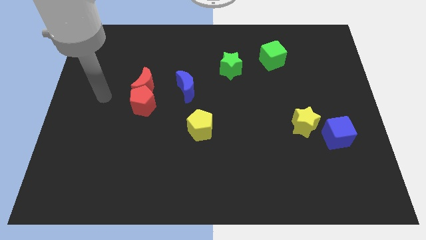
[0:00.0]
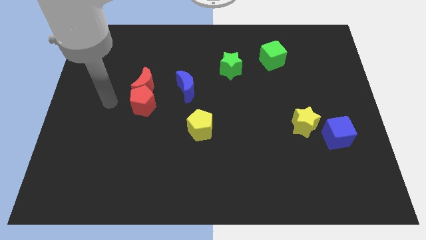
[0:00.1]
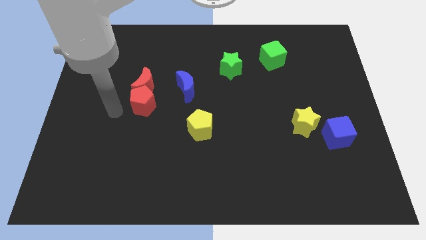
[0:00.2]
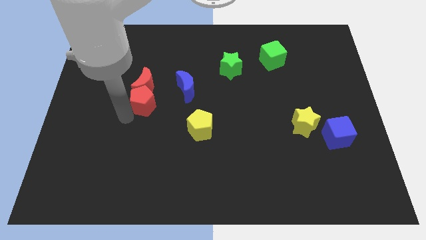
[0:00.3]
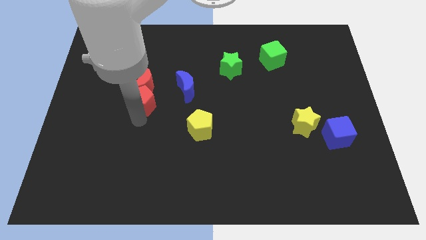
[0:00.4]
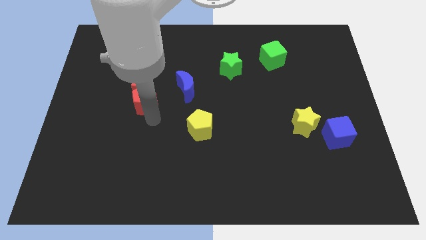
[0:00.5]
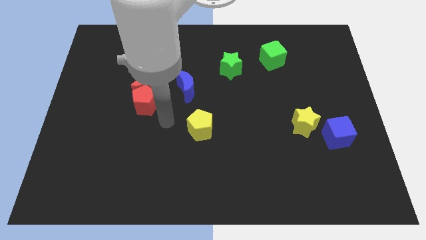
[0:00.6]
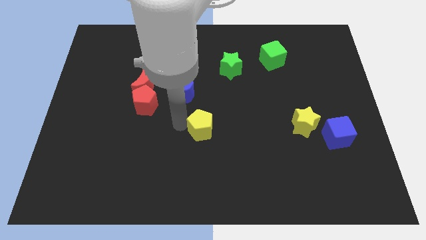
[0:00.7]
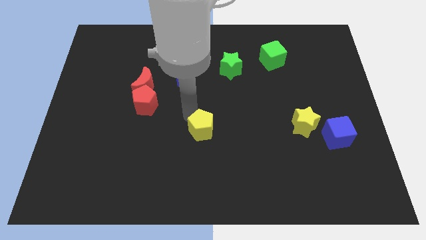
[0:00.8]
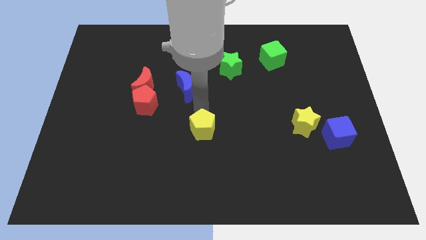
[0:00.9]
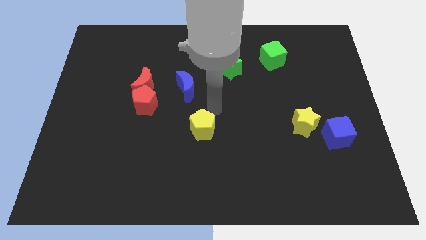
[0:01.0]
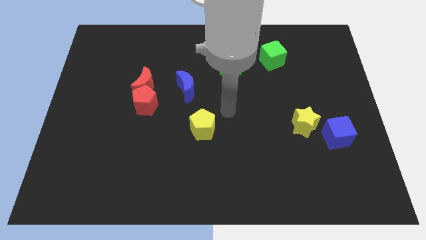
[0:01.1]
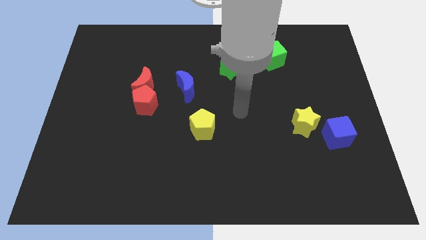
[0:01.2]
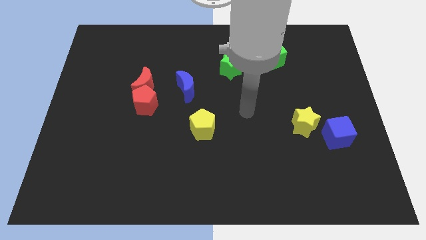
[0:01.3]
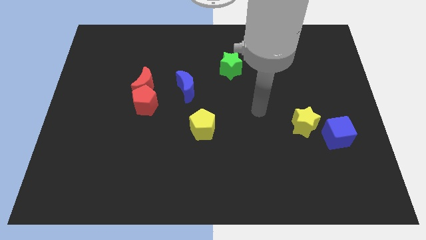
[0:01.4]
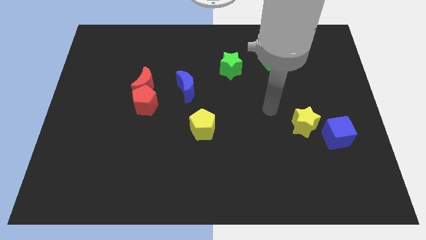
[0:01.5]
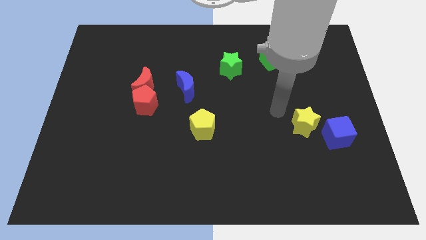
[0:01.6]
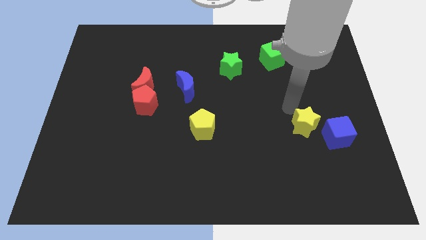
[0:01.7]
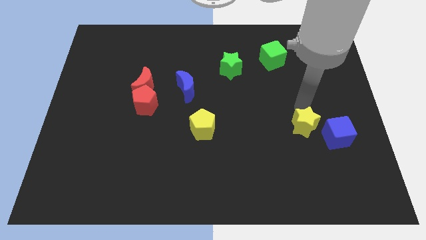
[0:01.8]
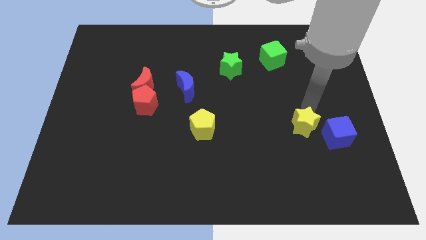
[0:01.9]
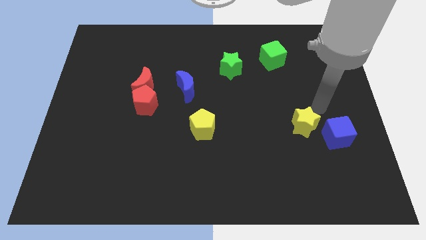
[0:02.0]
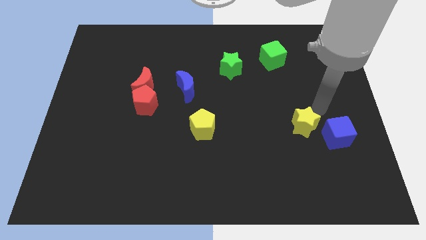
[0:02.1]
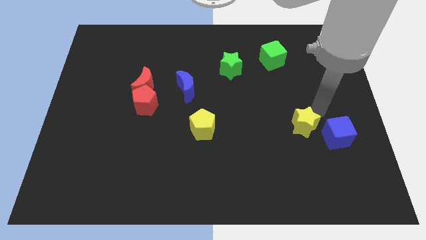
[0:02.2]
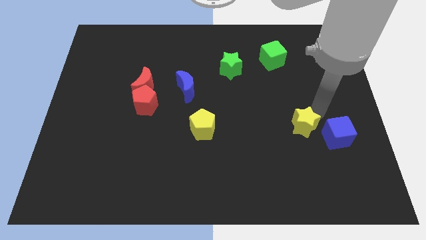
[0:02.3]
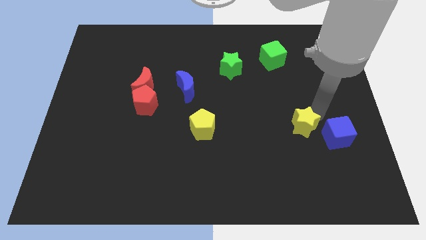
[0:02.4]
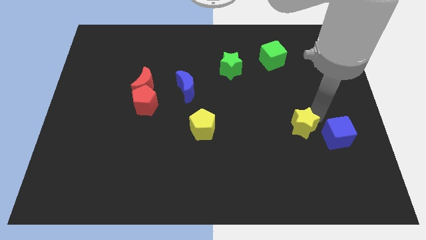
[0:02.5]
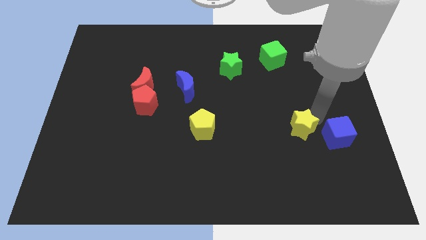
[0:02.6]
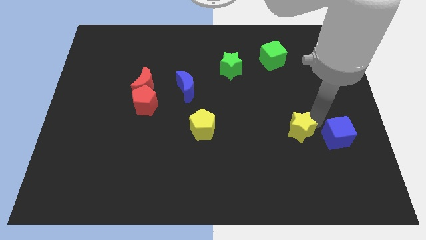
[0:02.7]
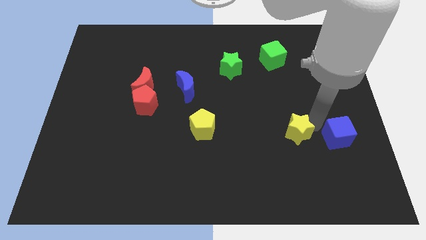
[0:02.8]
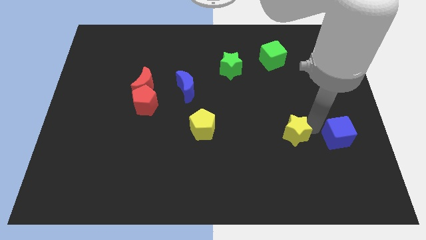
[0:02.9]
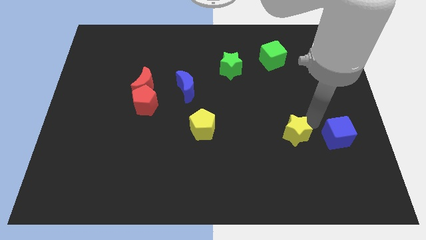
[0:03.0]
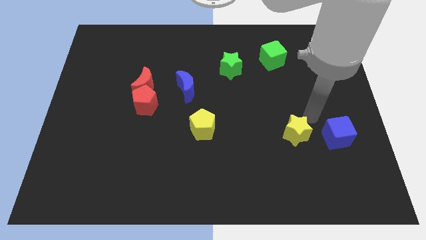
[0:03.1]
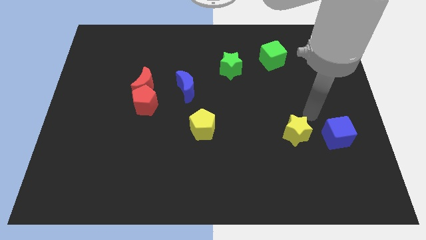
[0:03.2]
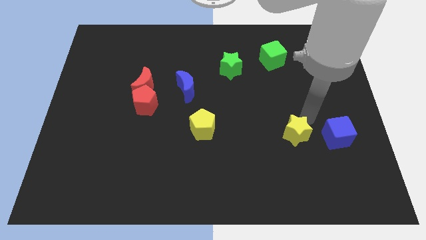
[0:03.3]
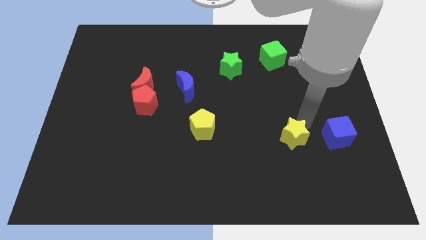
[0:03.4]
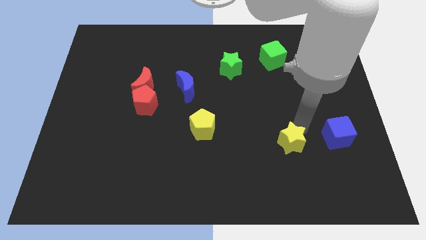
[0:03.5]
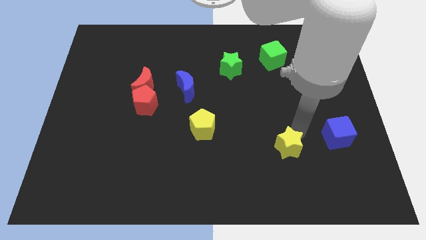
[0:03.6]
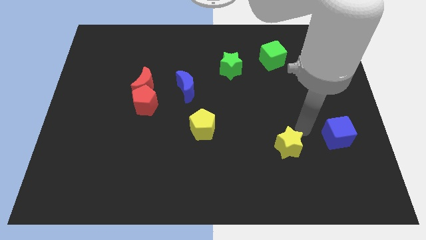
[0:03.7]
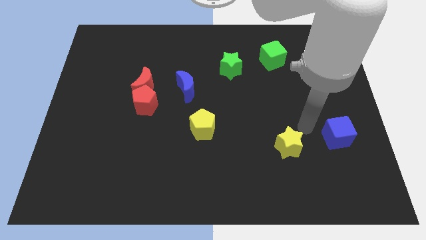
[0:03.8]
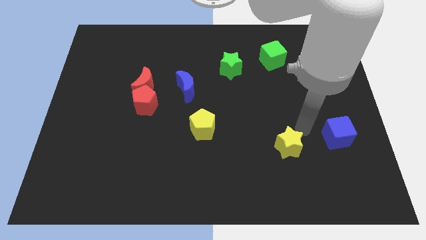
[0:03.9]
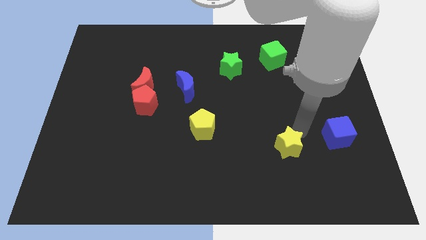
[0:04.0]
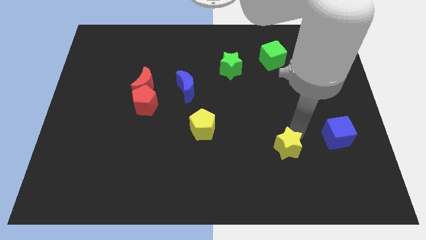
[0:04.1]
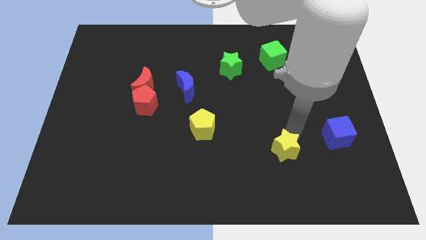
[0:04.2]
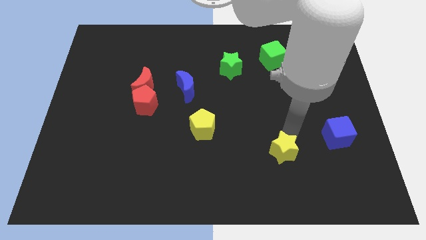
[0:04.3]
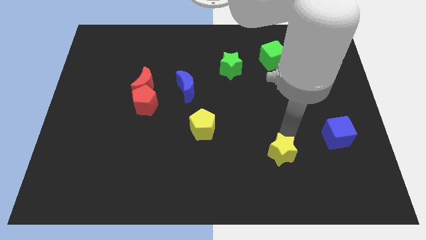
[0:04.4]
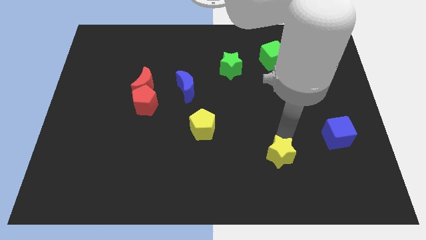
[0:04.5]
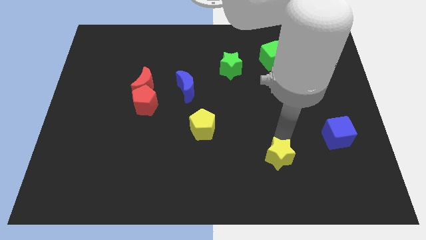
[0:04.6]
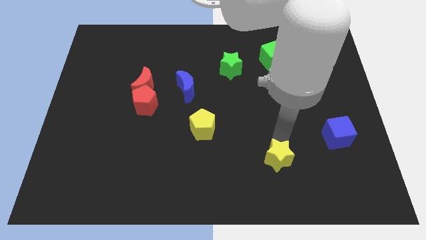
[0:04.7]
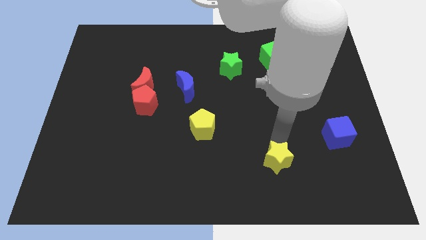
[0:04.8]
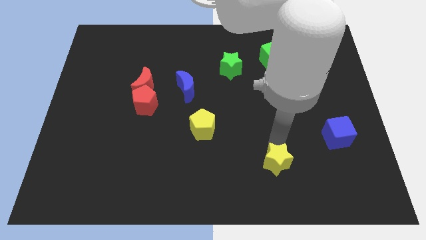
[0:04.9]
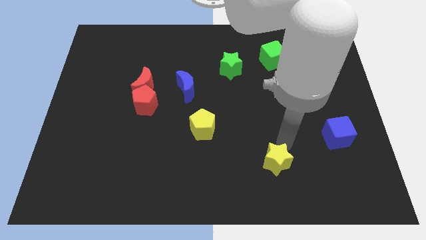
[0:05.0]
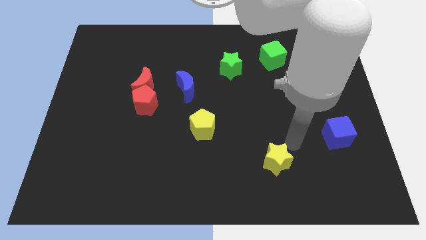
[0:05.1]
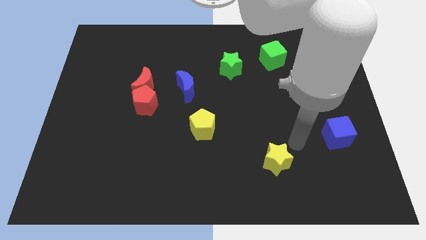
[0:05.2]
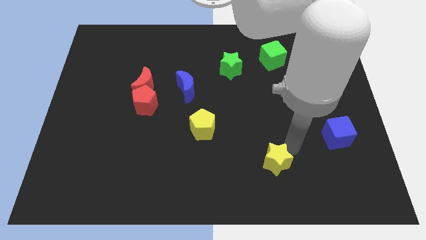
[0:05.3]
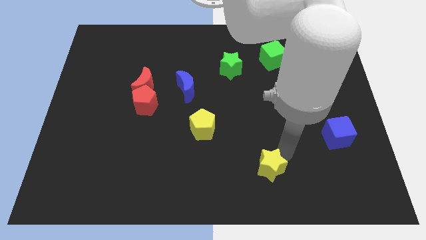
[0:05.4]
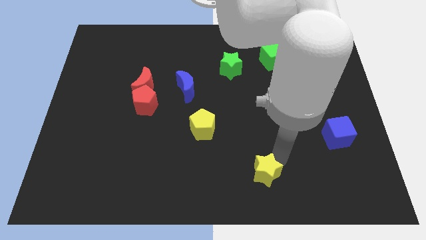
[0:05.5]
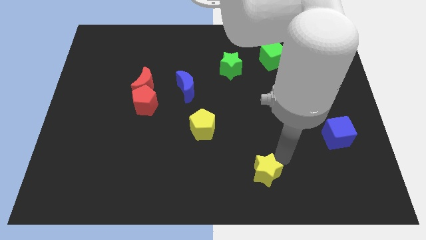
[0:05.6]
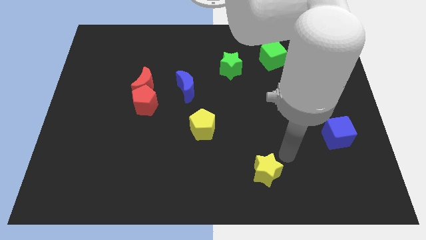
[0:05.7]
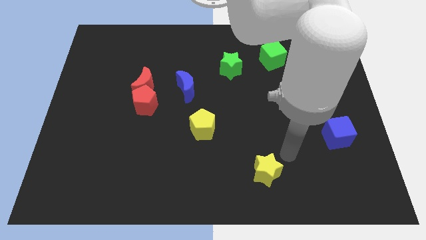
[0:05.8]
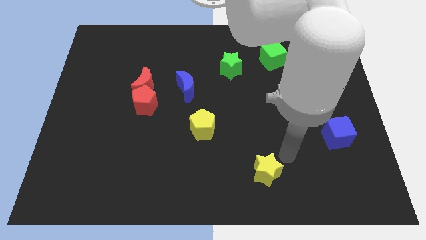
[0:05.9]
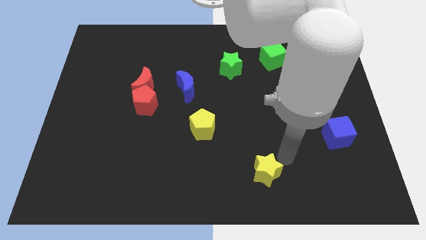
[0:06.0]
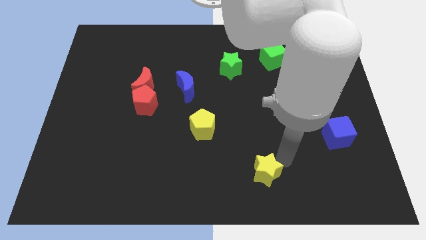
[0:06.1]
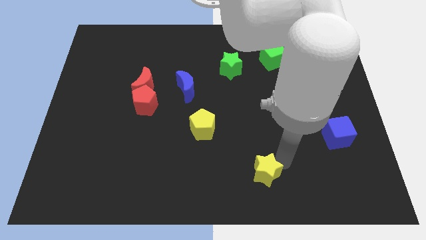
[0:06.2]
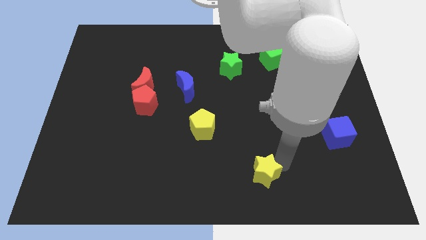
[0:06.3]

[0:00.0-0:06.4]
move the yellow star to the bottom side
